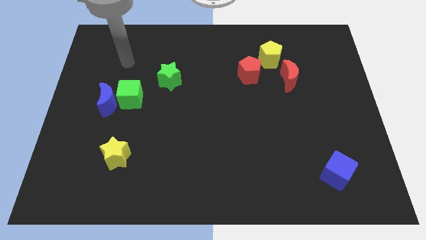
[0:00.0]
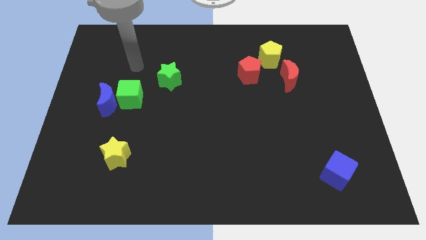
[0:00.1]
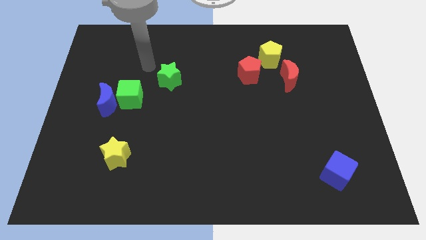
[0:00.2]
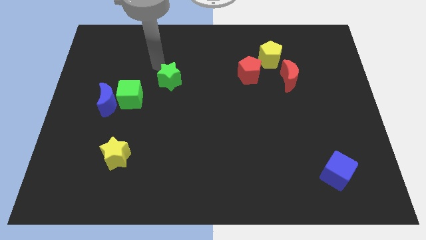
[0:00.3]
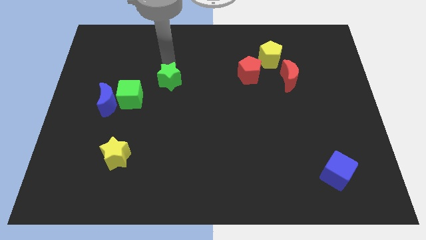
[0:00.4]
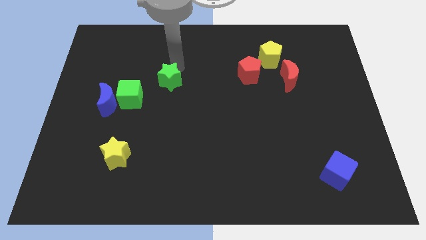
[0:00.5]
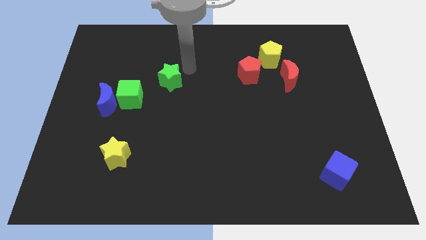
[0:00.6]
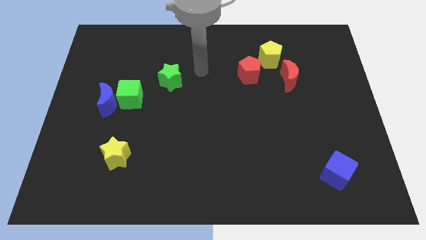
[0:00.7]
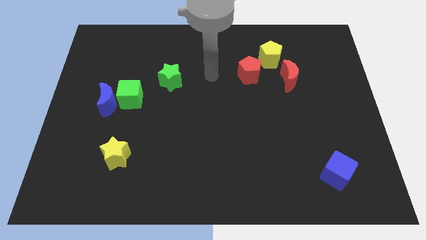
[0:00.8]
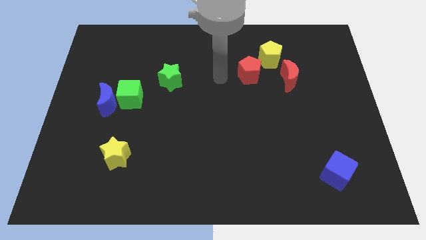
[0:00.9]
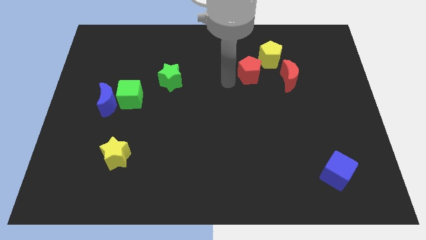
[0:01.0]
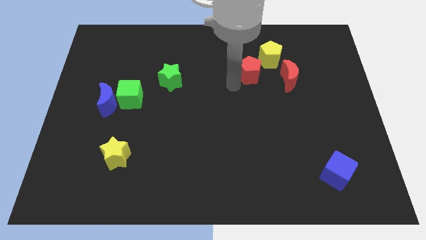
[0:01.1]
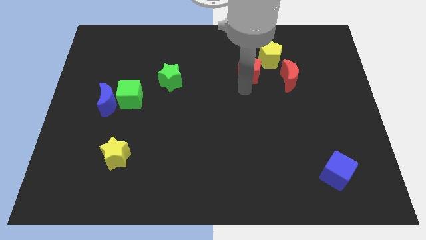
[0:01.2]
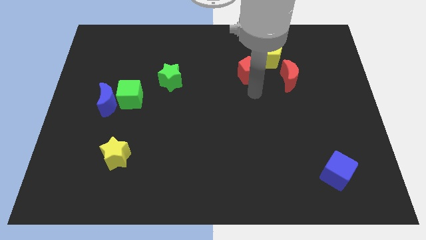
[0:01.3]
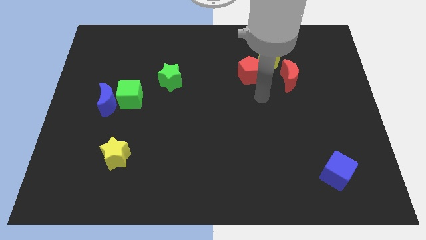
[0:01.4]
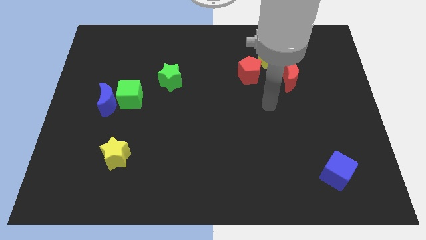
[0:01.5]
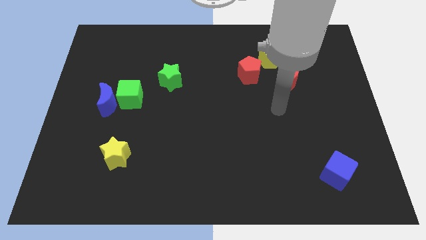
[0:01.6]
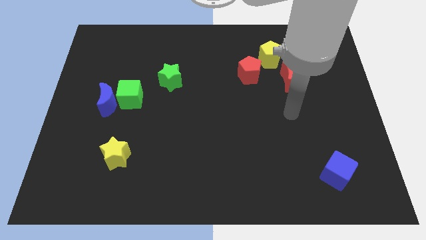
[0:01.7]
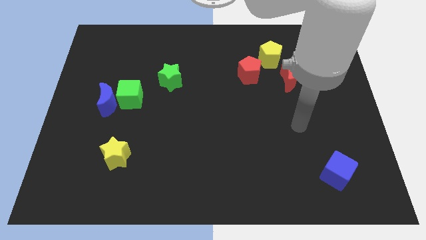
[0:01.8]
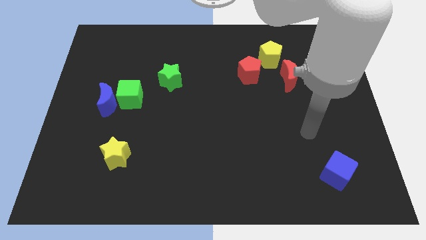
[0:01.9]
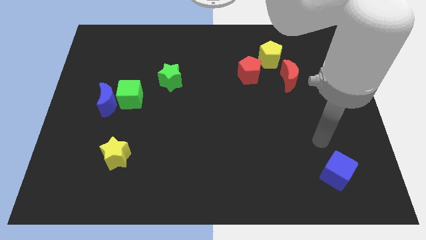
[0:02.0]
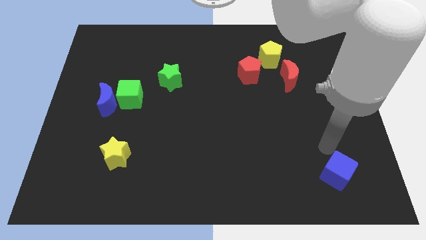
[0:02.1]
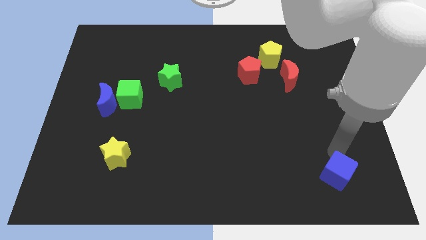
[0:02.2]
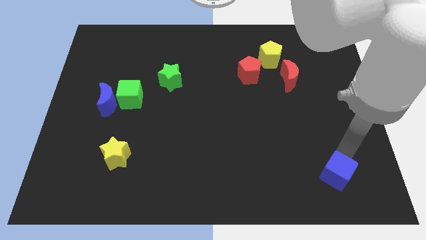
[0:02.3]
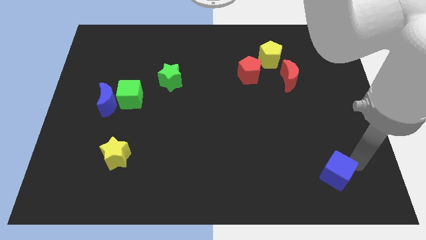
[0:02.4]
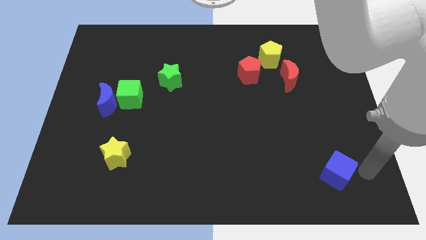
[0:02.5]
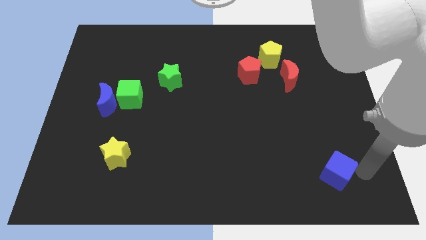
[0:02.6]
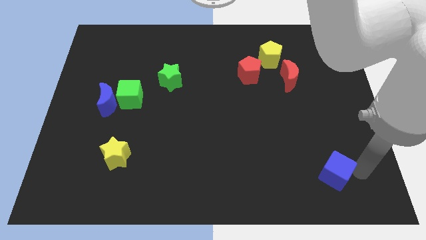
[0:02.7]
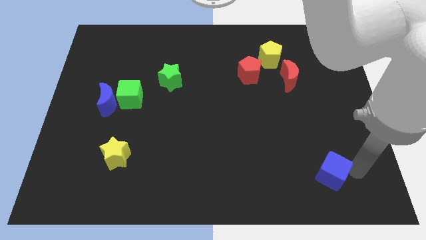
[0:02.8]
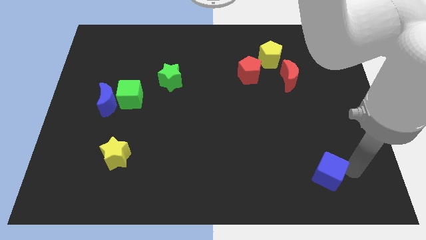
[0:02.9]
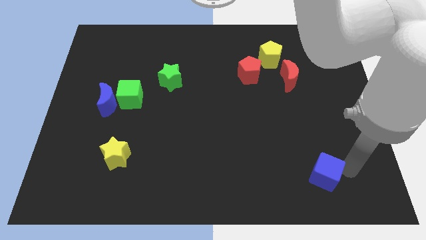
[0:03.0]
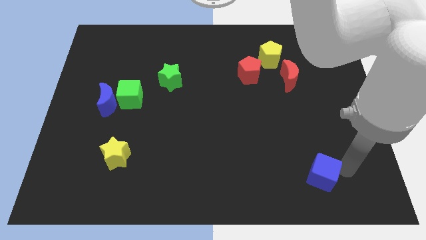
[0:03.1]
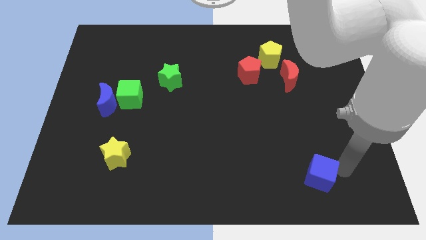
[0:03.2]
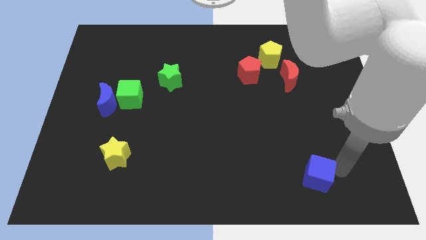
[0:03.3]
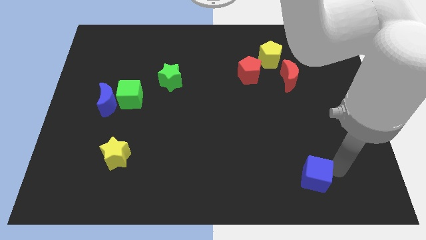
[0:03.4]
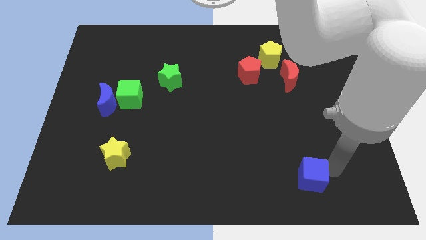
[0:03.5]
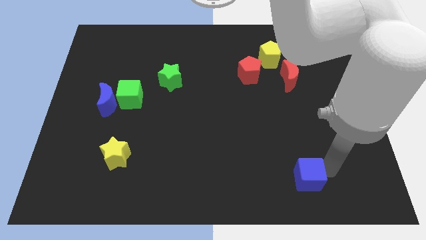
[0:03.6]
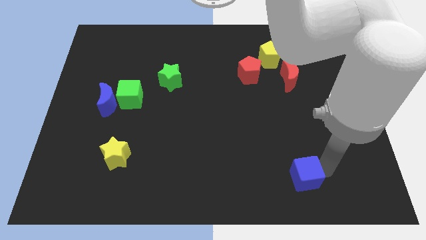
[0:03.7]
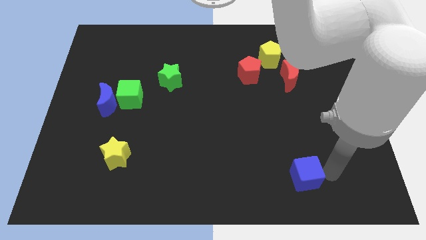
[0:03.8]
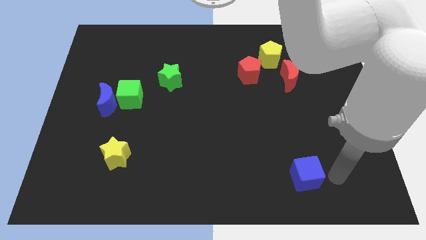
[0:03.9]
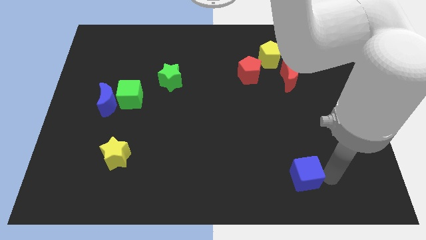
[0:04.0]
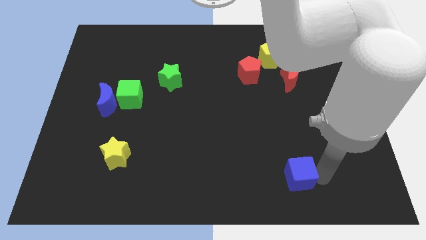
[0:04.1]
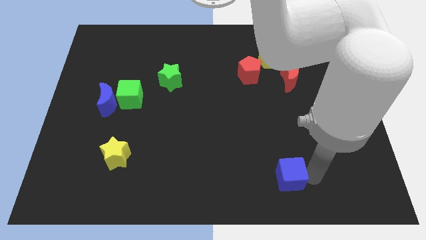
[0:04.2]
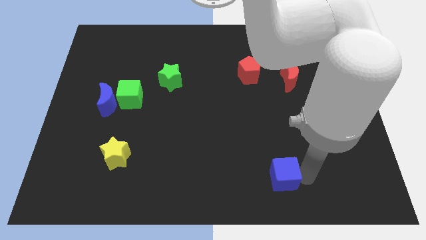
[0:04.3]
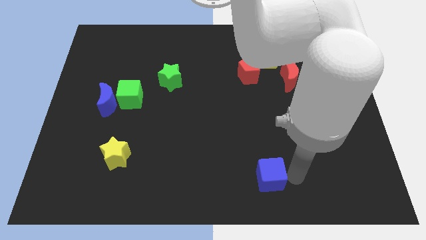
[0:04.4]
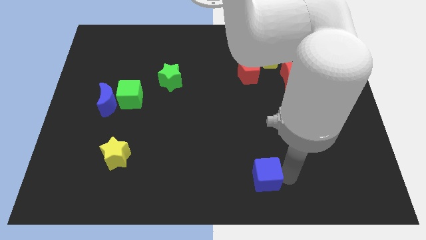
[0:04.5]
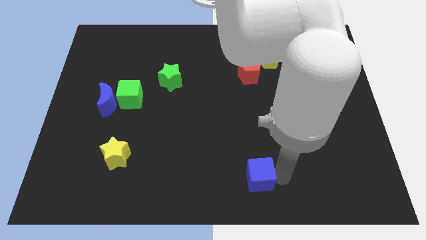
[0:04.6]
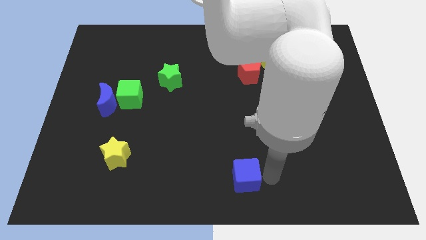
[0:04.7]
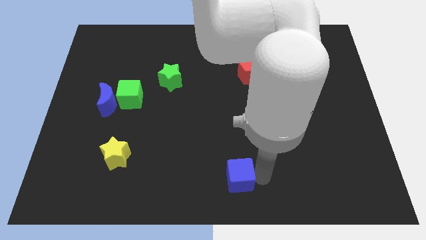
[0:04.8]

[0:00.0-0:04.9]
slide the blue cube to the left

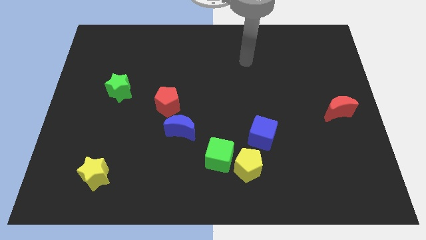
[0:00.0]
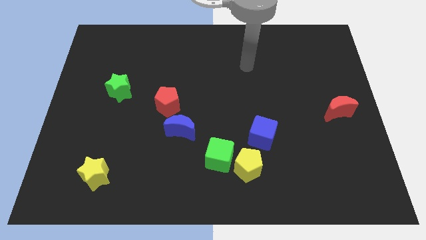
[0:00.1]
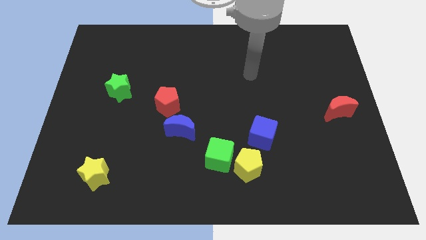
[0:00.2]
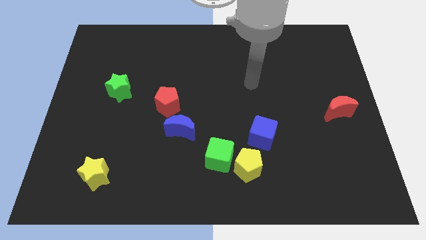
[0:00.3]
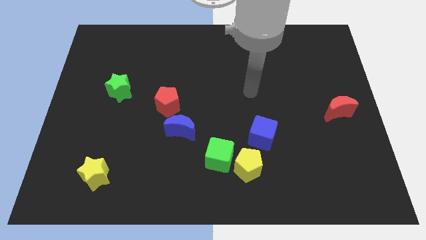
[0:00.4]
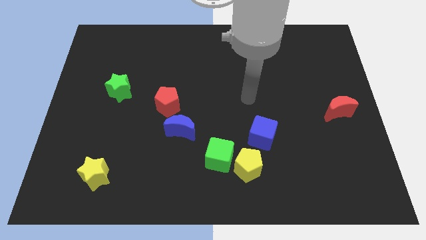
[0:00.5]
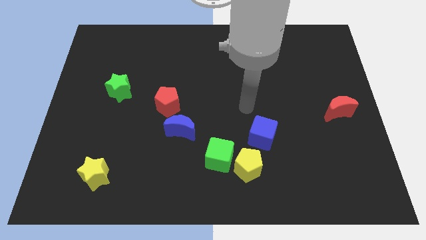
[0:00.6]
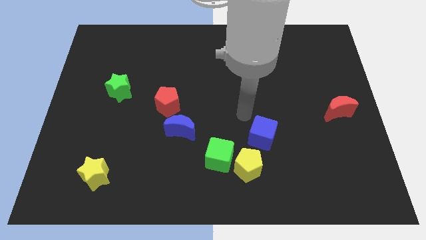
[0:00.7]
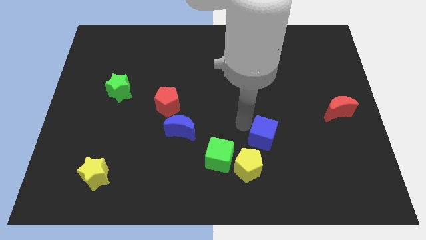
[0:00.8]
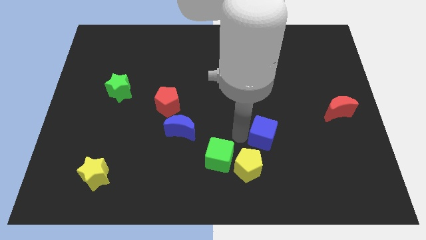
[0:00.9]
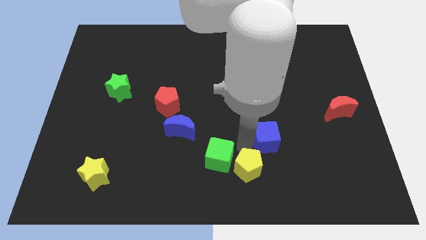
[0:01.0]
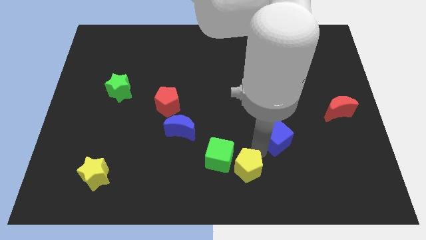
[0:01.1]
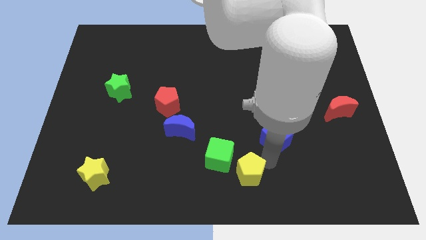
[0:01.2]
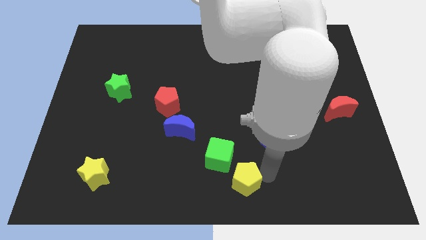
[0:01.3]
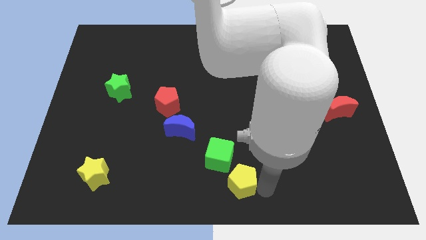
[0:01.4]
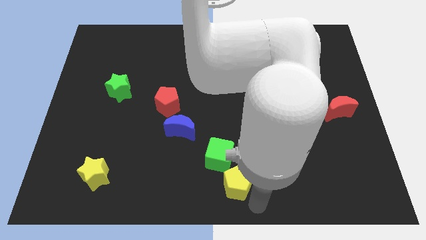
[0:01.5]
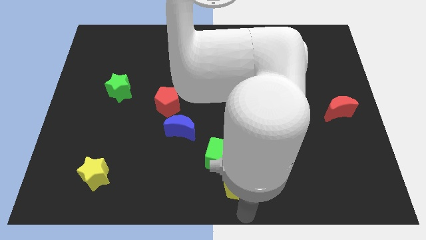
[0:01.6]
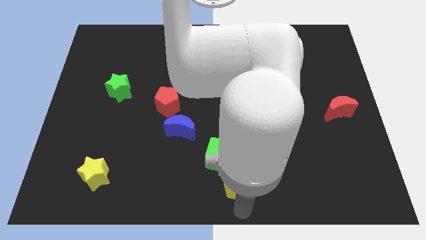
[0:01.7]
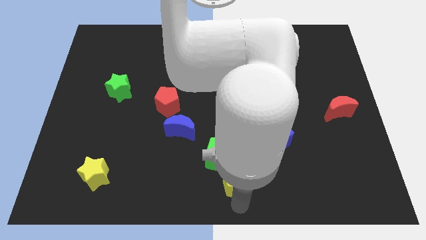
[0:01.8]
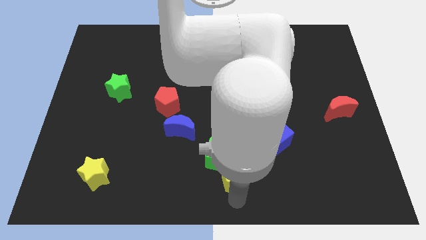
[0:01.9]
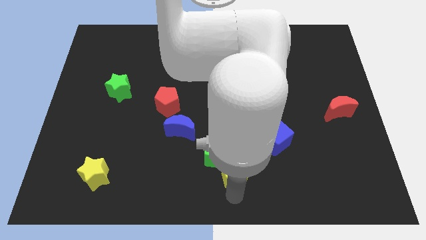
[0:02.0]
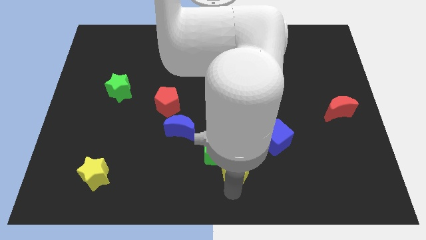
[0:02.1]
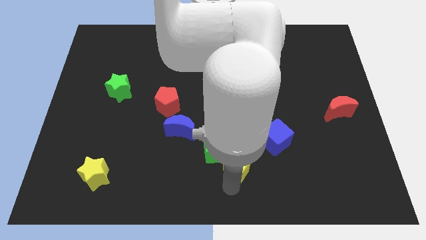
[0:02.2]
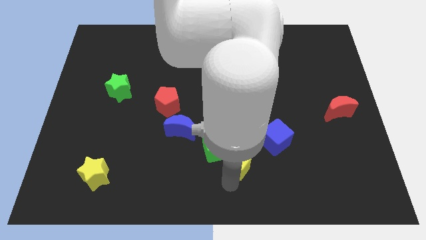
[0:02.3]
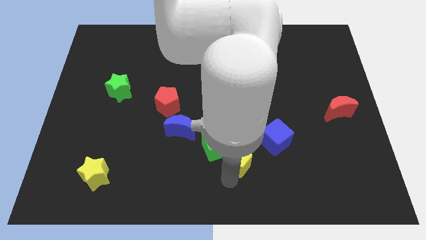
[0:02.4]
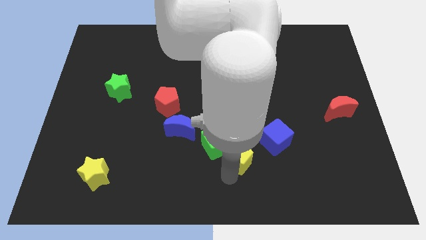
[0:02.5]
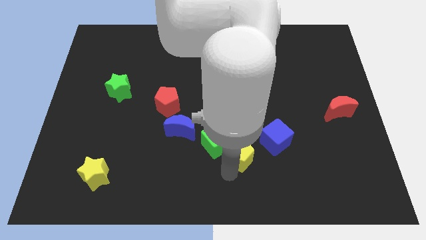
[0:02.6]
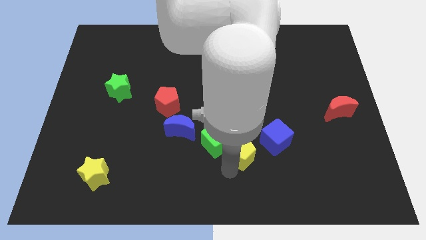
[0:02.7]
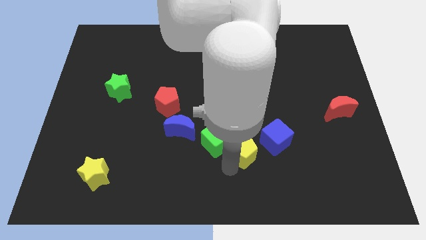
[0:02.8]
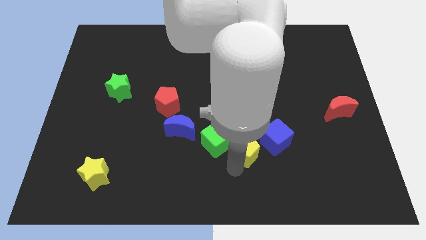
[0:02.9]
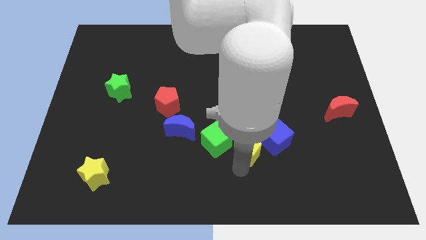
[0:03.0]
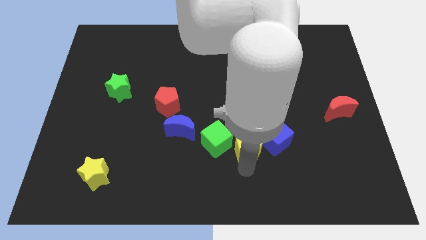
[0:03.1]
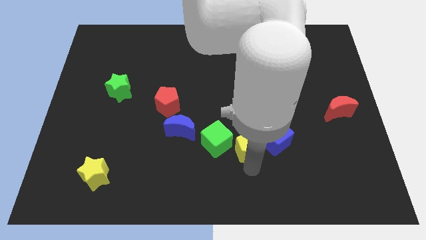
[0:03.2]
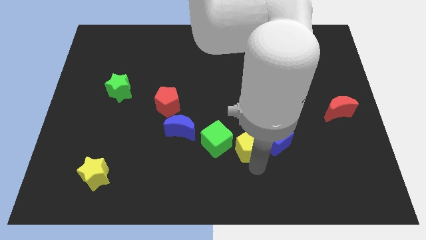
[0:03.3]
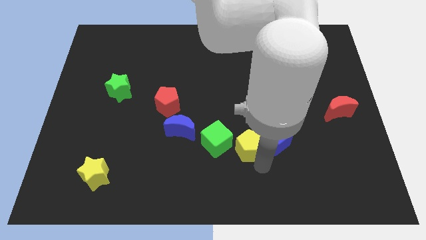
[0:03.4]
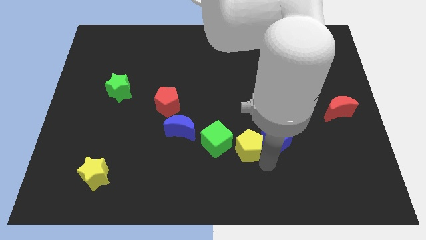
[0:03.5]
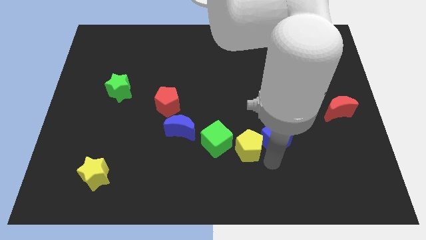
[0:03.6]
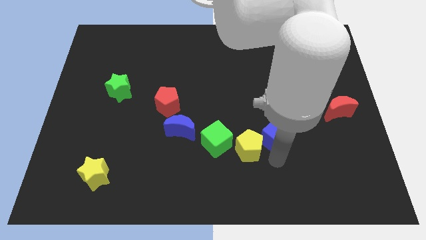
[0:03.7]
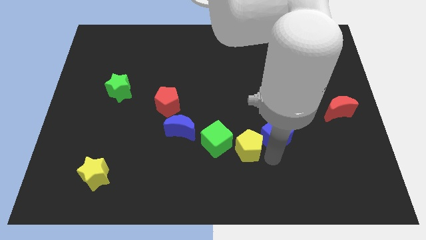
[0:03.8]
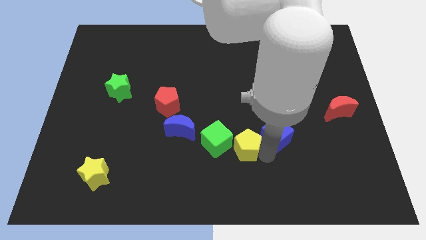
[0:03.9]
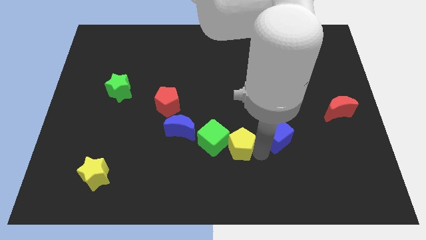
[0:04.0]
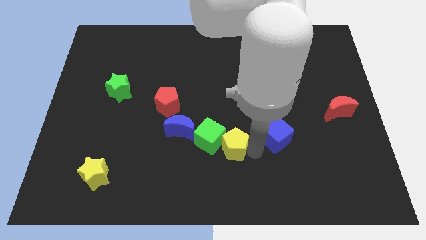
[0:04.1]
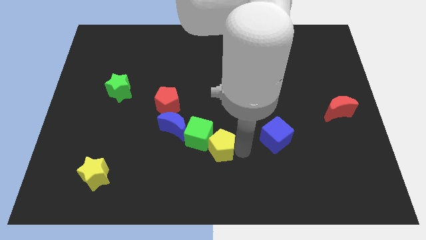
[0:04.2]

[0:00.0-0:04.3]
slide the yellow pentagon slightly up and then to the left
